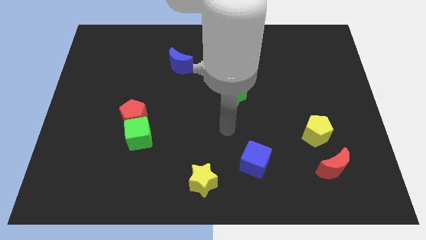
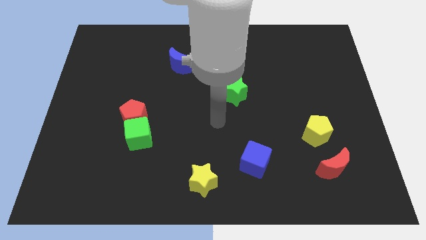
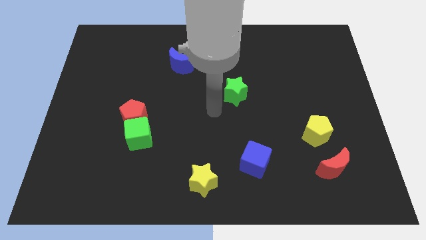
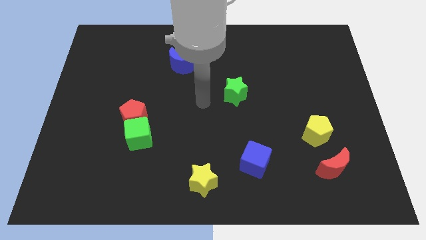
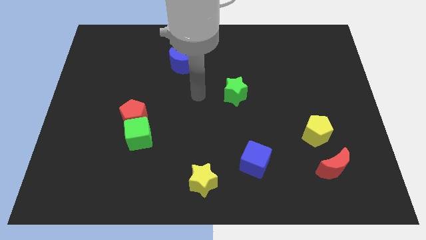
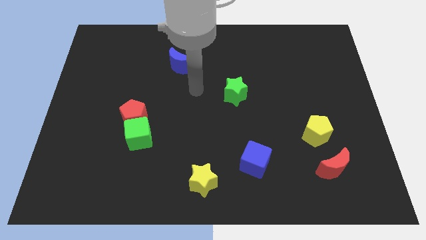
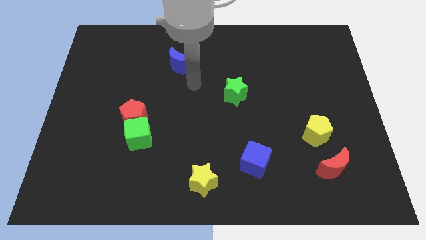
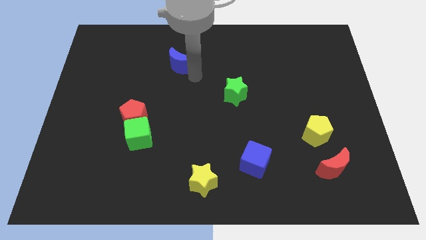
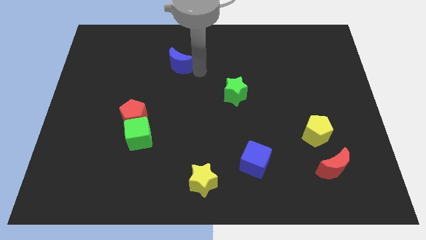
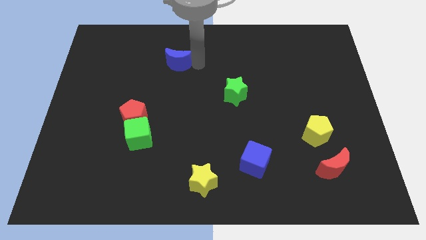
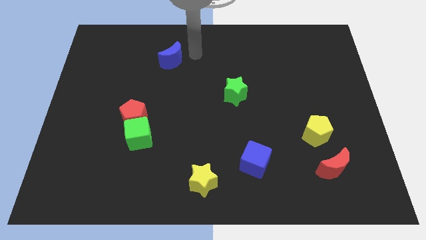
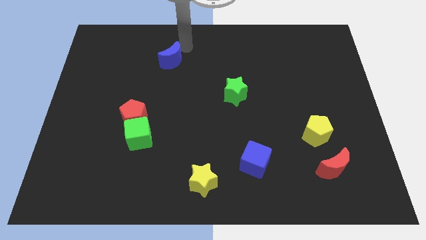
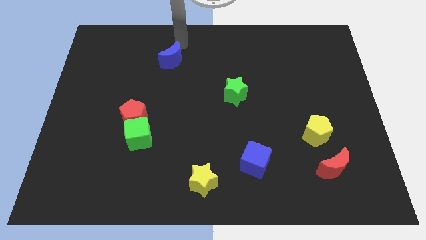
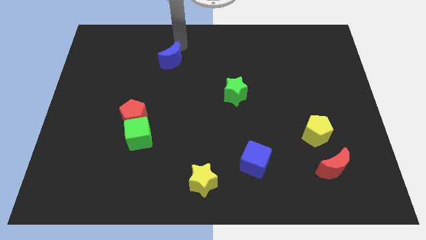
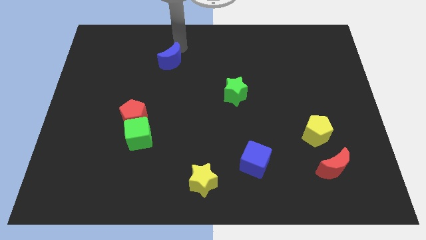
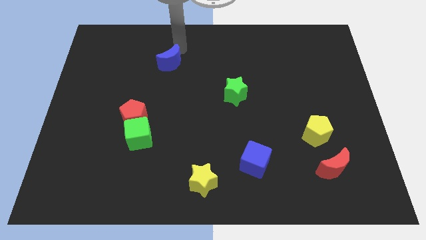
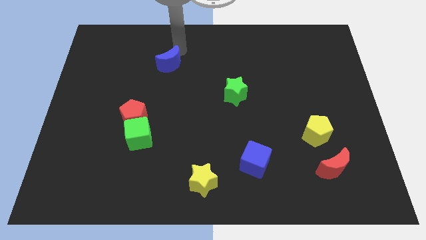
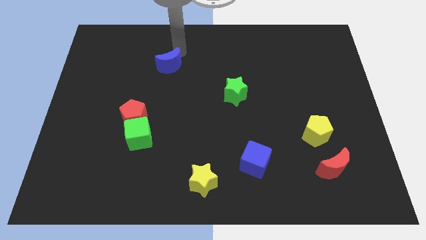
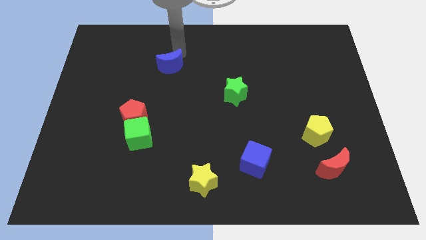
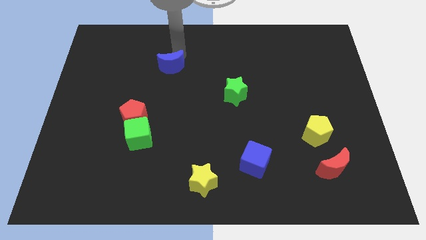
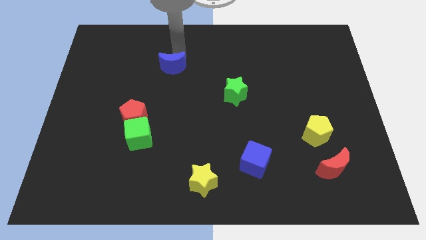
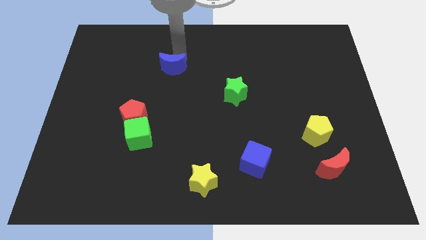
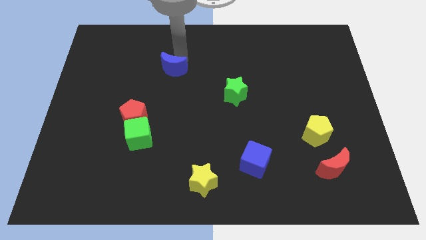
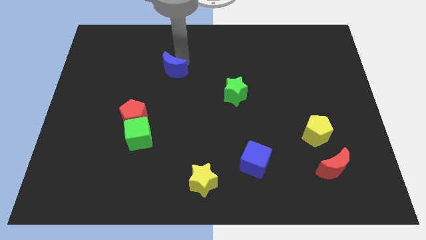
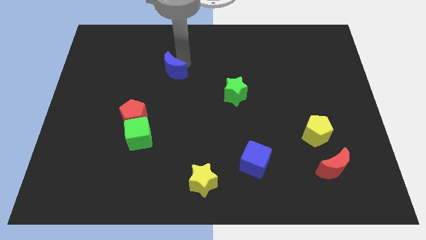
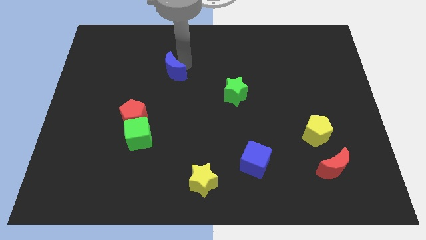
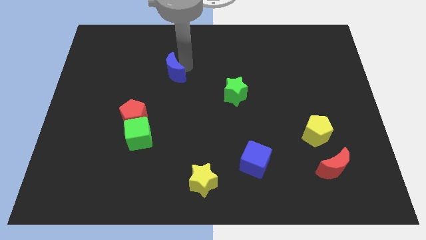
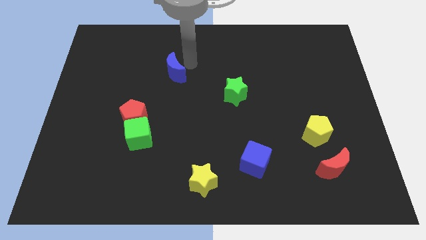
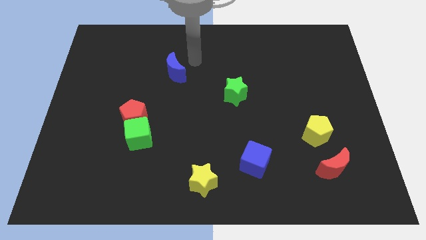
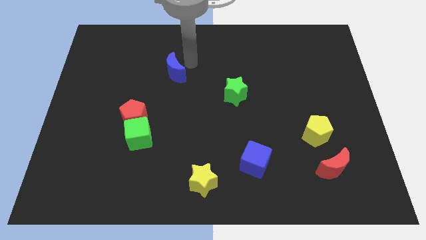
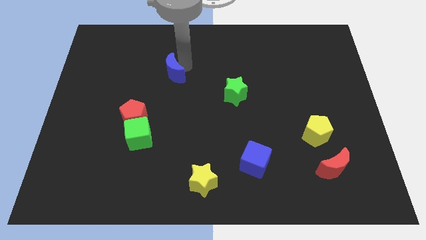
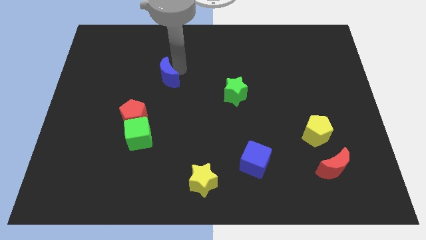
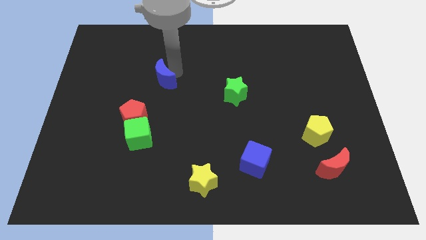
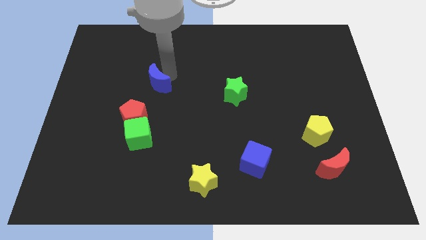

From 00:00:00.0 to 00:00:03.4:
push the blue moon downwards and to the left diagonally slightly

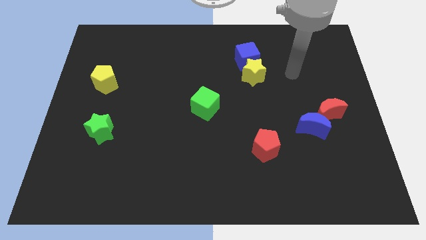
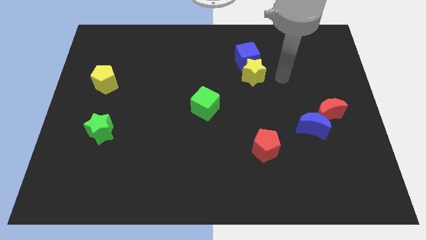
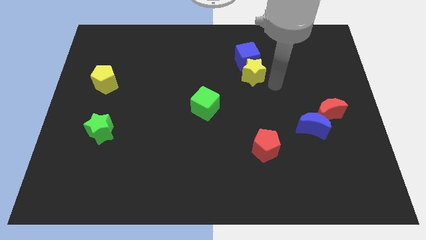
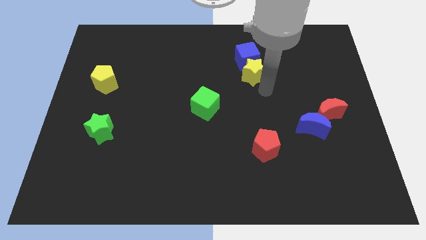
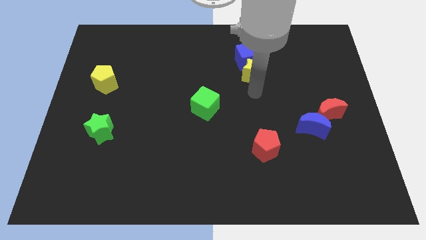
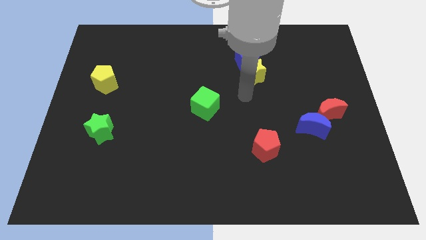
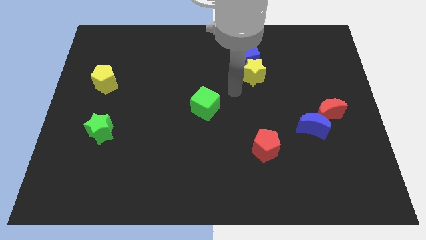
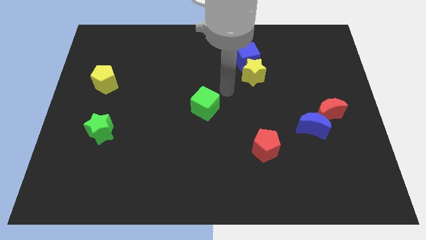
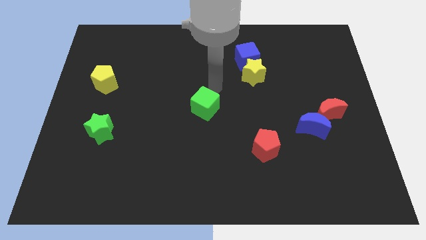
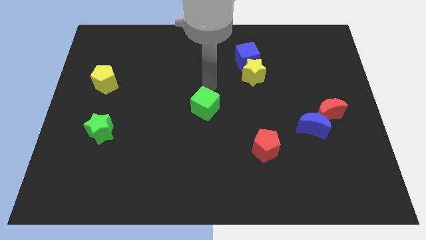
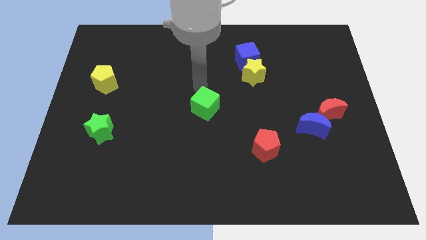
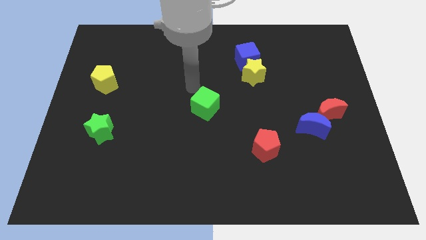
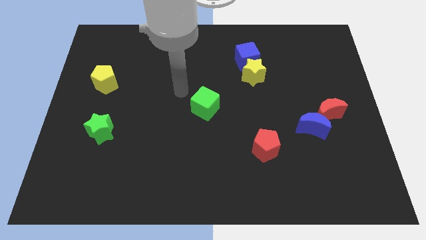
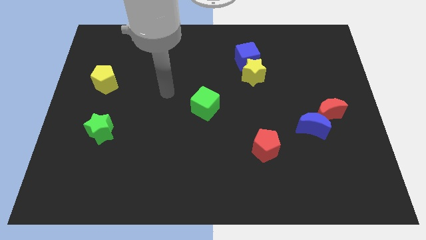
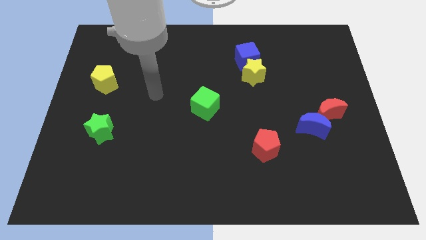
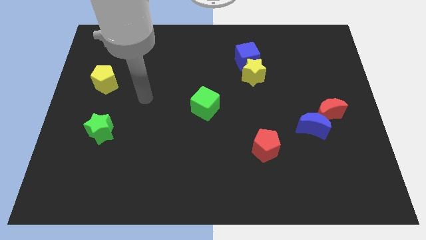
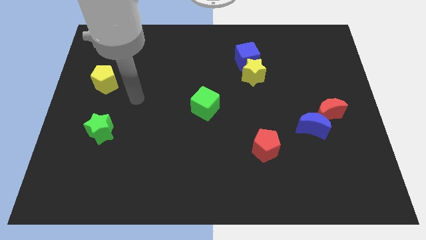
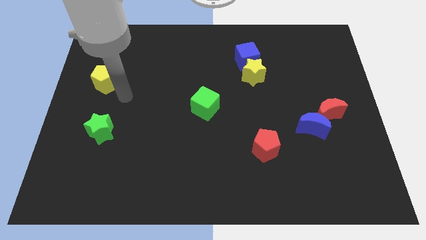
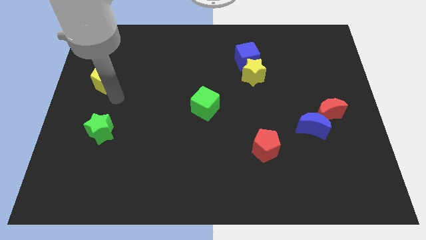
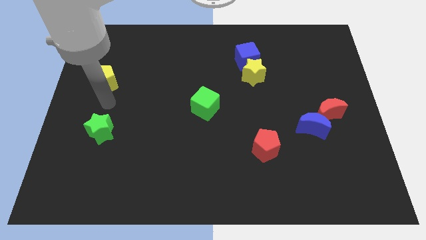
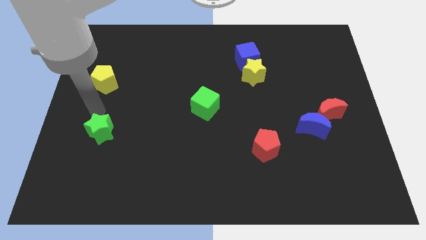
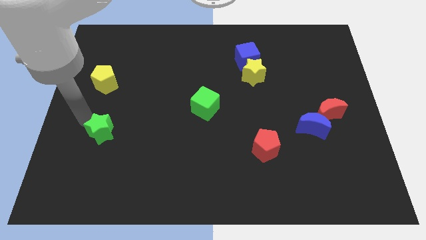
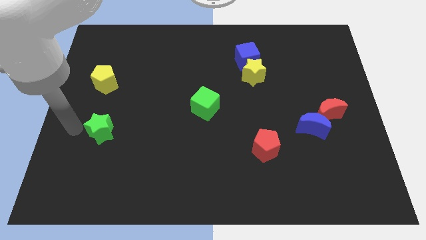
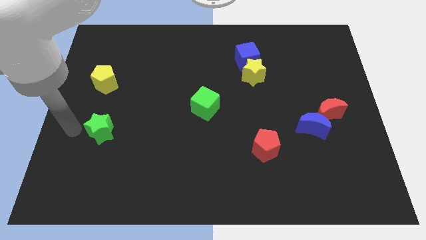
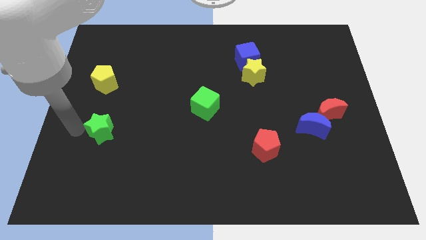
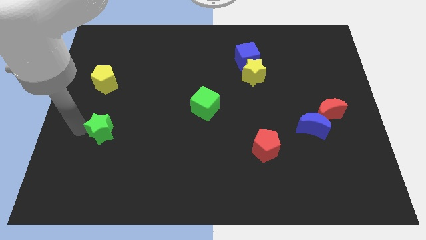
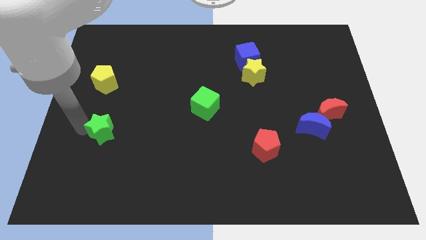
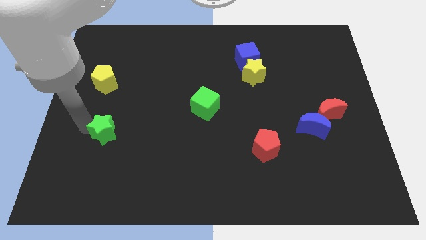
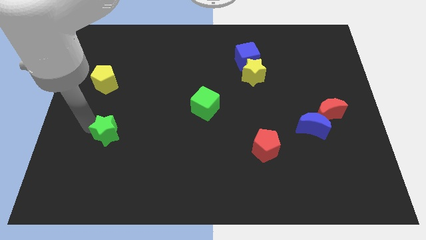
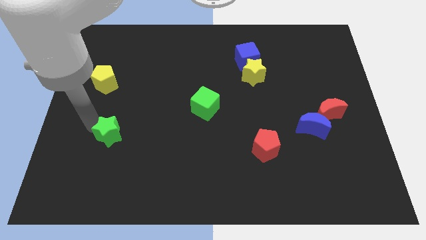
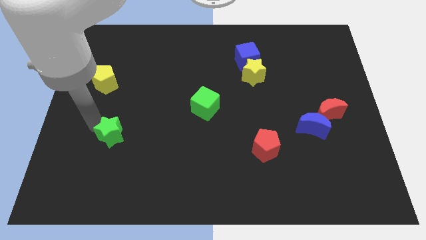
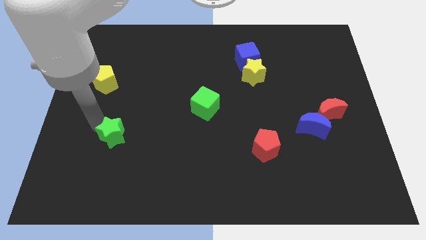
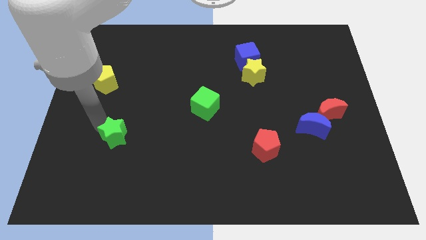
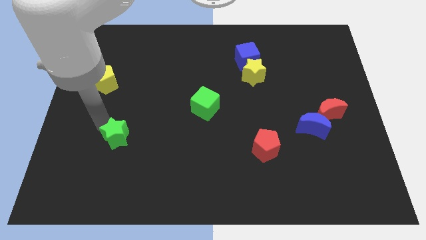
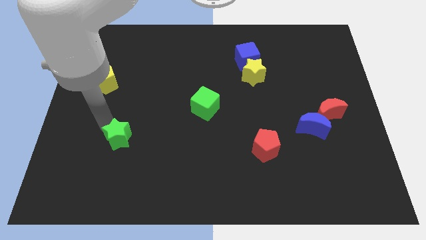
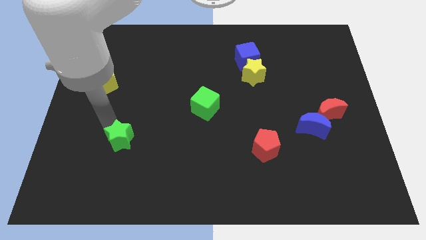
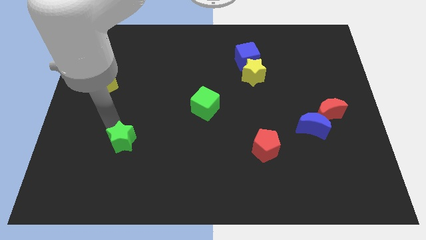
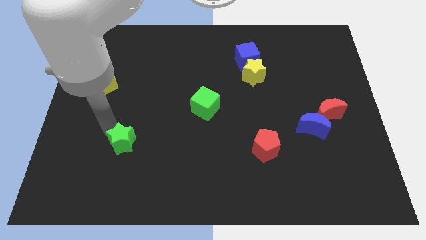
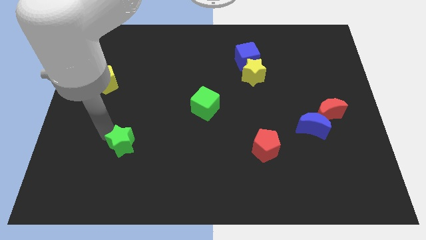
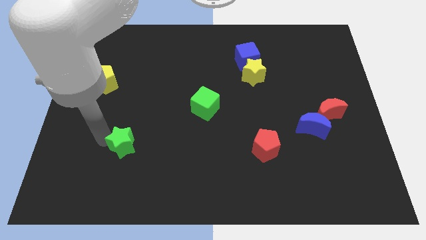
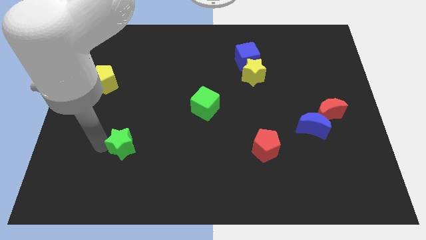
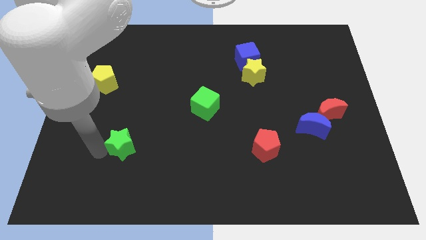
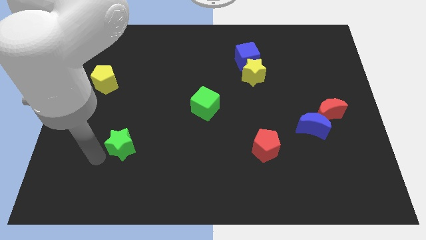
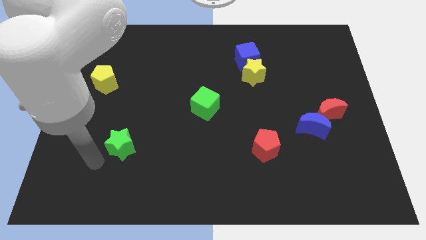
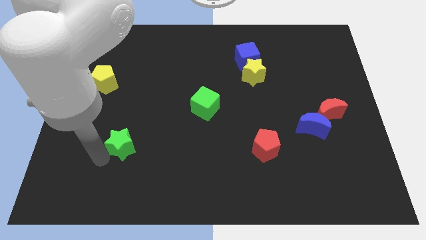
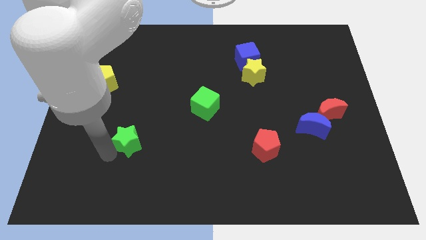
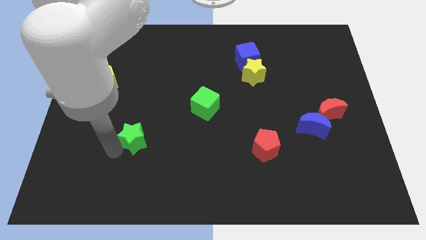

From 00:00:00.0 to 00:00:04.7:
slide the green star a bit right

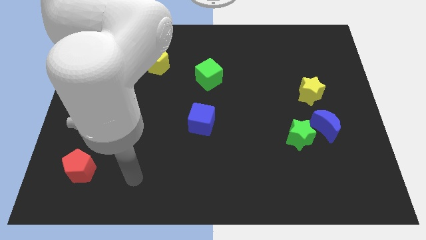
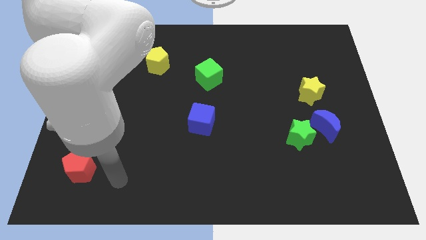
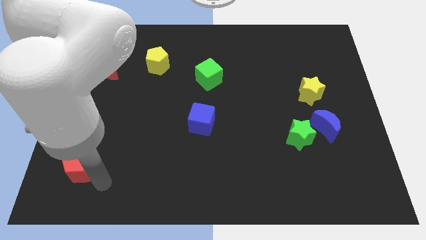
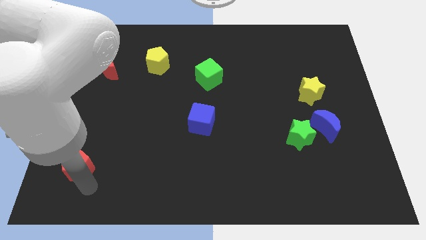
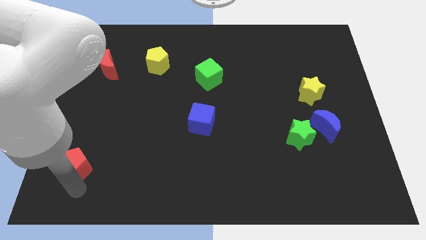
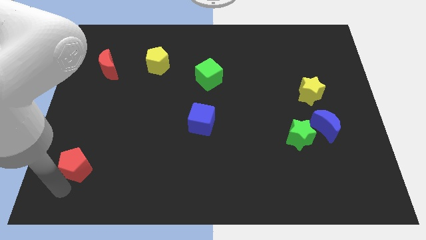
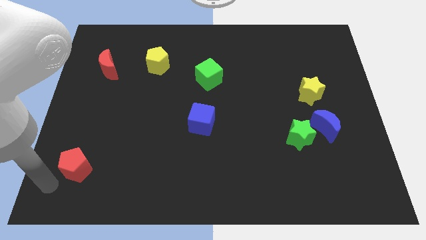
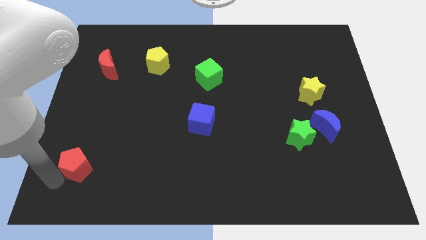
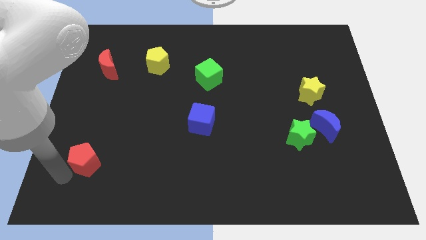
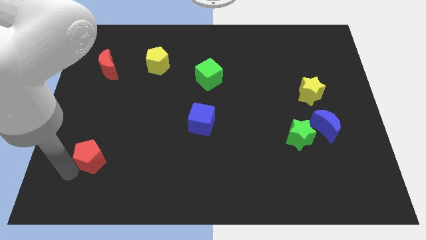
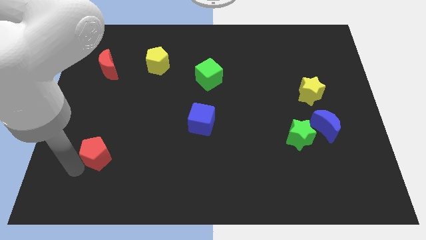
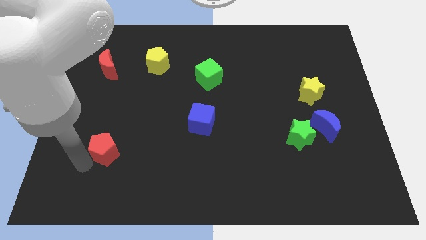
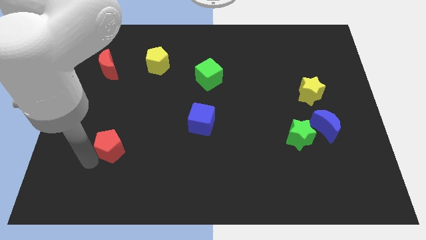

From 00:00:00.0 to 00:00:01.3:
move the red pentagon upwards and to the right a little
